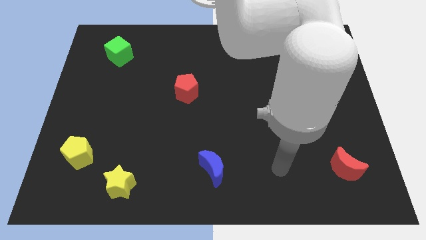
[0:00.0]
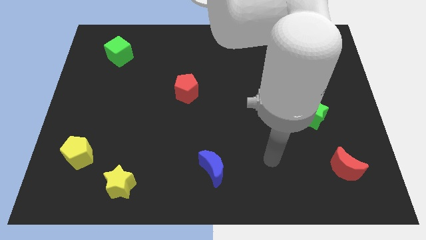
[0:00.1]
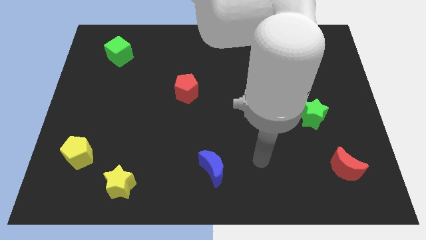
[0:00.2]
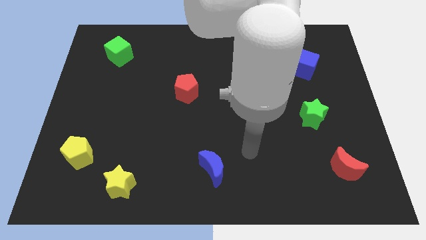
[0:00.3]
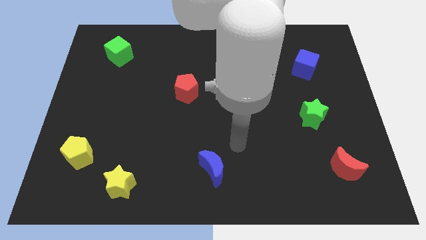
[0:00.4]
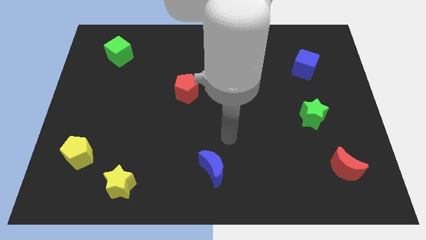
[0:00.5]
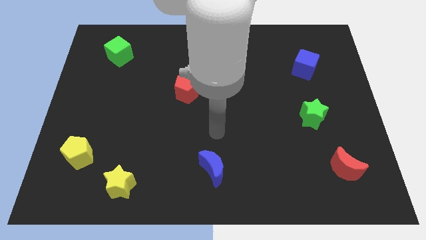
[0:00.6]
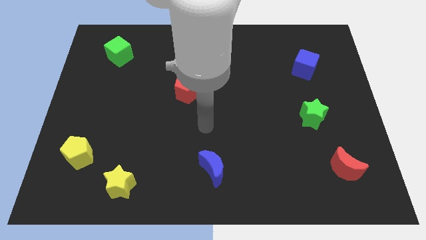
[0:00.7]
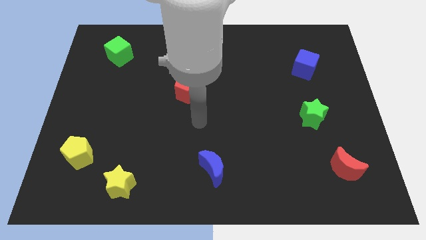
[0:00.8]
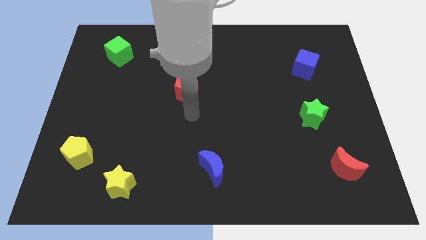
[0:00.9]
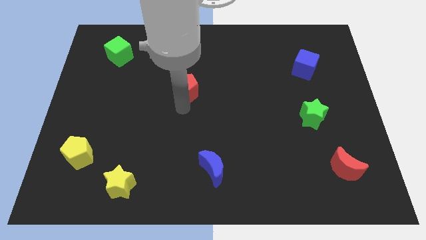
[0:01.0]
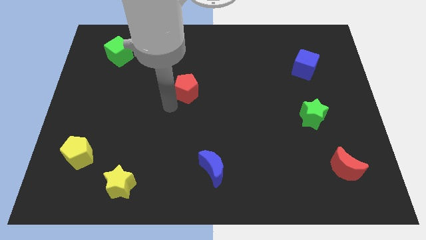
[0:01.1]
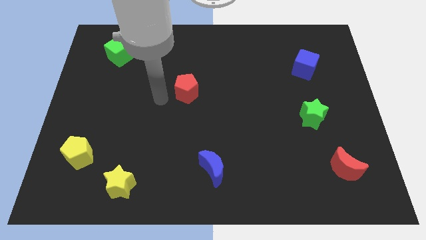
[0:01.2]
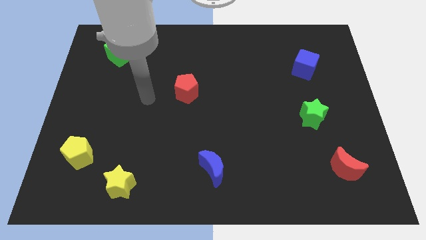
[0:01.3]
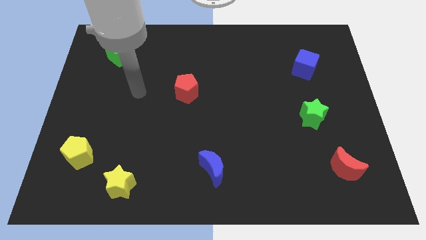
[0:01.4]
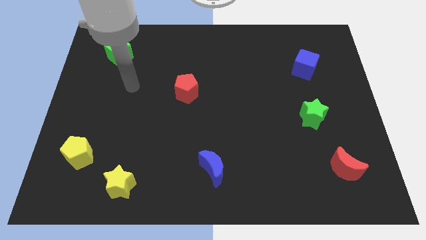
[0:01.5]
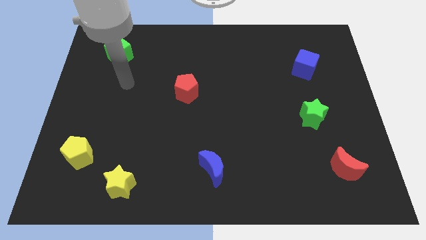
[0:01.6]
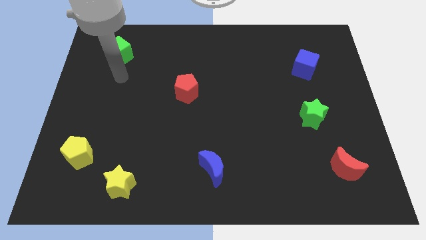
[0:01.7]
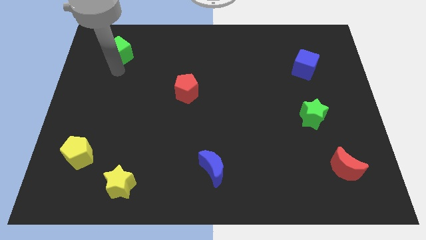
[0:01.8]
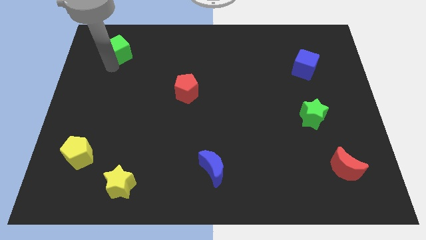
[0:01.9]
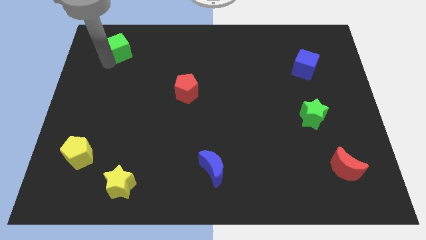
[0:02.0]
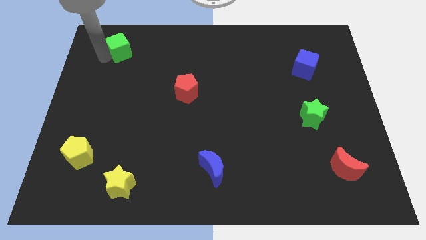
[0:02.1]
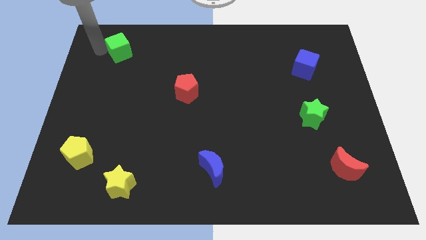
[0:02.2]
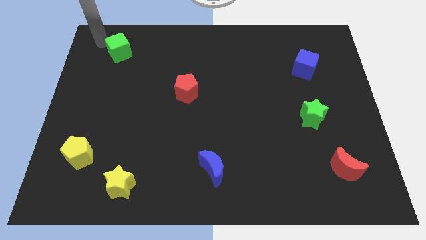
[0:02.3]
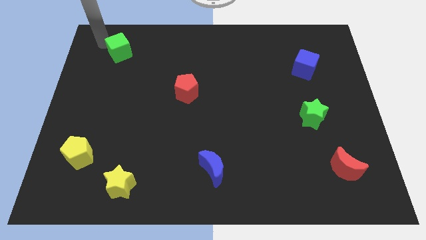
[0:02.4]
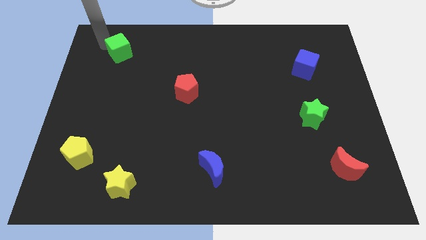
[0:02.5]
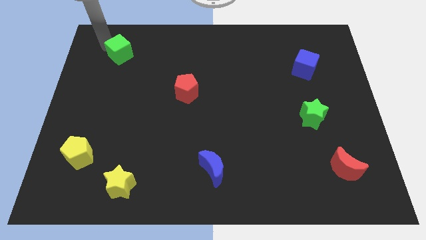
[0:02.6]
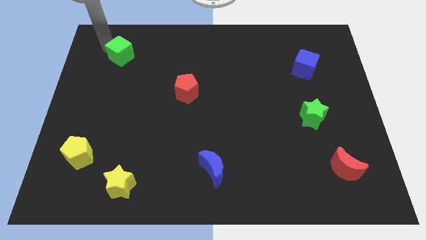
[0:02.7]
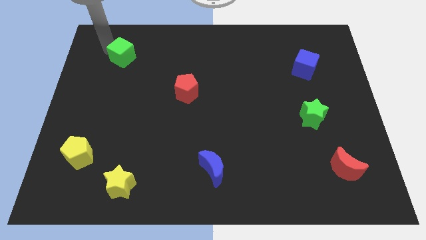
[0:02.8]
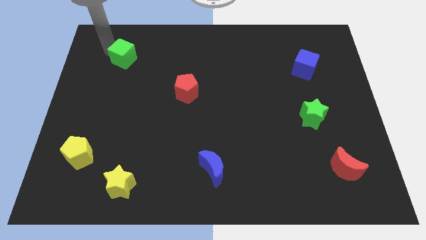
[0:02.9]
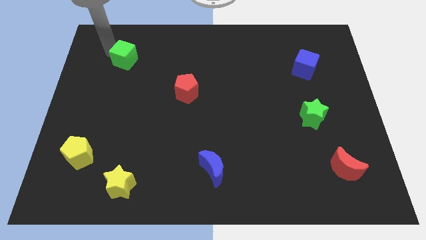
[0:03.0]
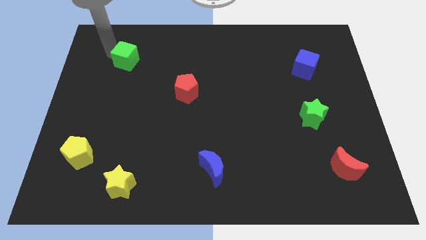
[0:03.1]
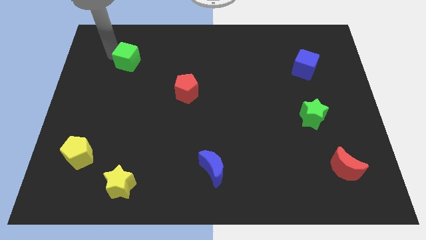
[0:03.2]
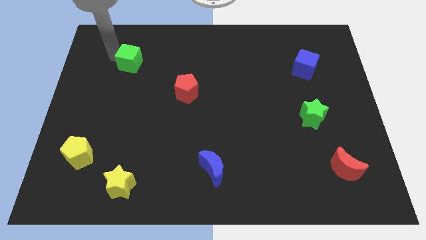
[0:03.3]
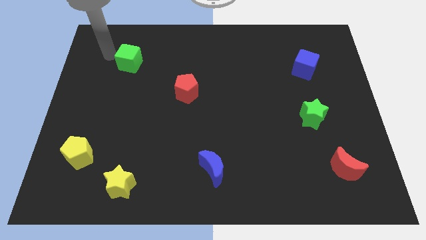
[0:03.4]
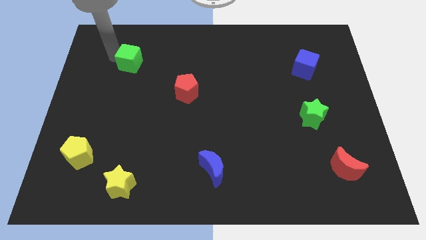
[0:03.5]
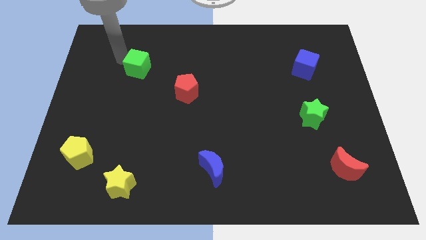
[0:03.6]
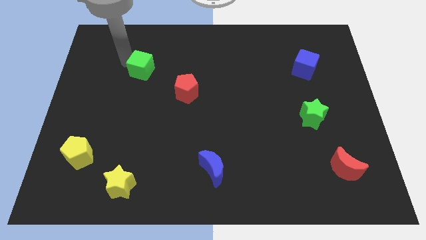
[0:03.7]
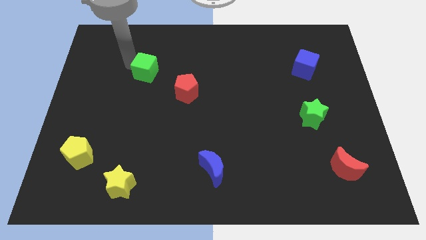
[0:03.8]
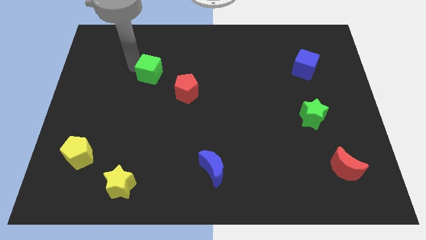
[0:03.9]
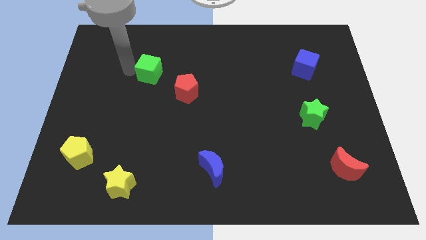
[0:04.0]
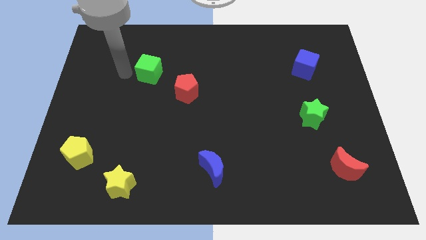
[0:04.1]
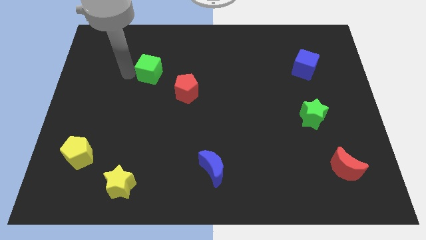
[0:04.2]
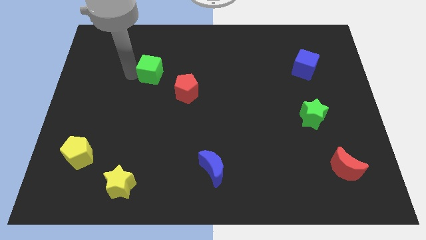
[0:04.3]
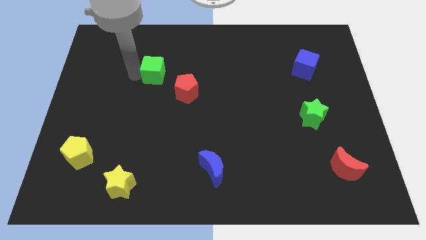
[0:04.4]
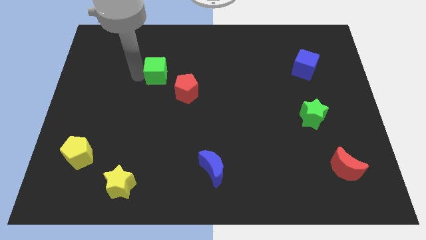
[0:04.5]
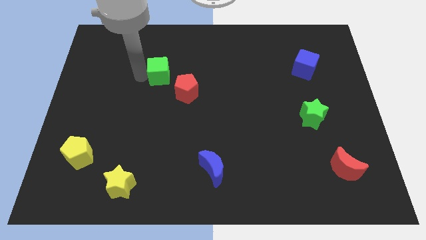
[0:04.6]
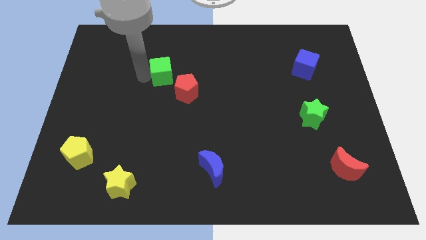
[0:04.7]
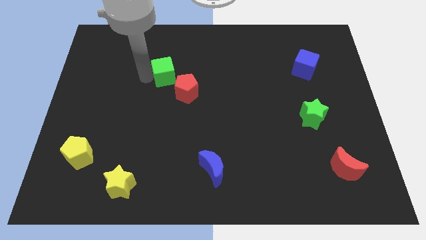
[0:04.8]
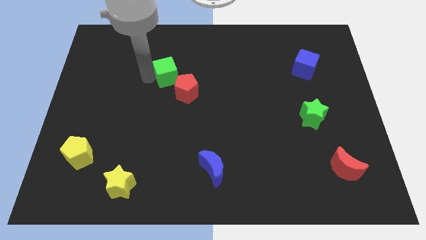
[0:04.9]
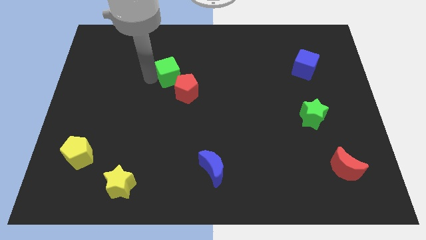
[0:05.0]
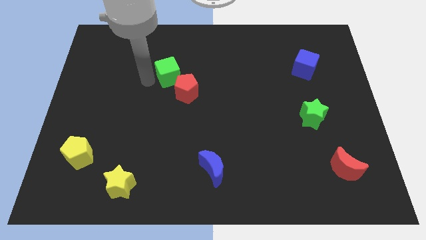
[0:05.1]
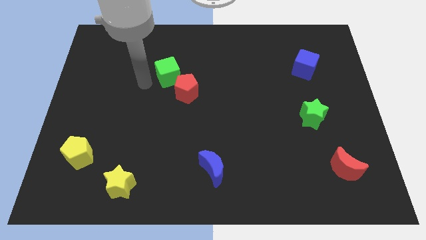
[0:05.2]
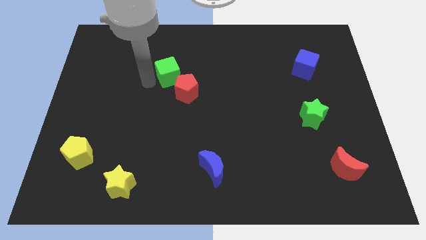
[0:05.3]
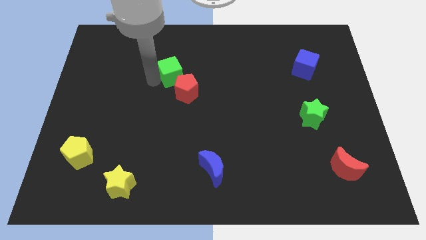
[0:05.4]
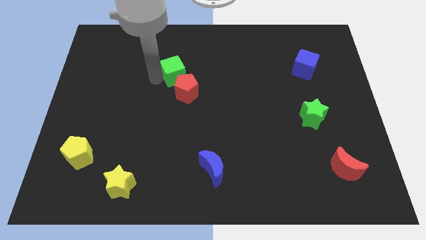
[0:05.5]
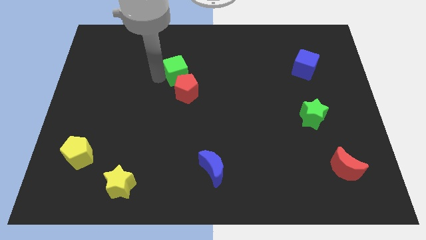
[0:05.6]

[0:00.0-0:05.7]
slide the green cube to the middle of the board

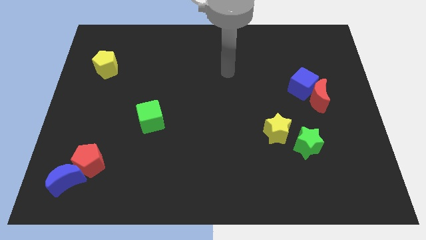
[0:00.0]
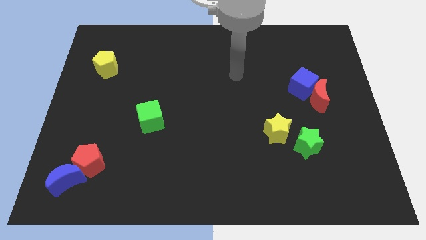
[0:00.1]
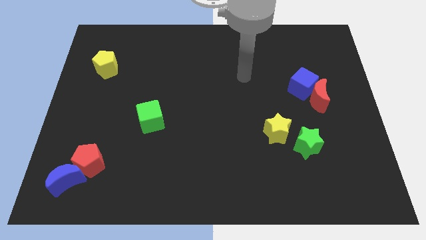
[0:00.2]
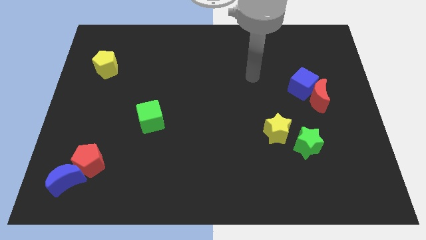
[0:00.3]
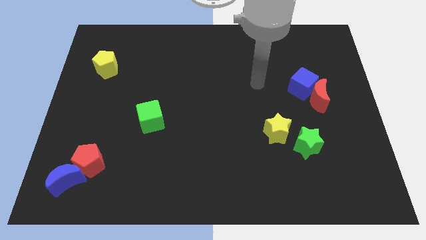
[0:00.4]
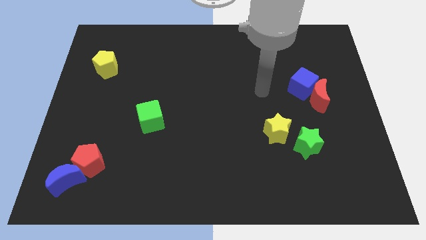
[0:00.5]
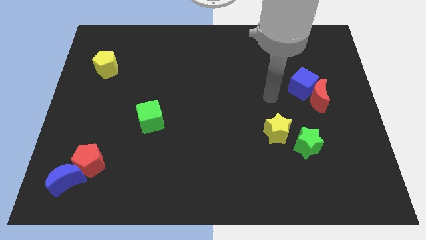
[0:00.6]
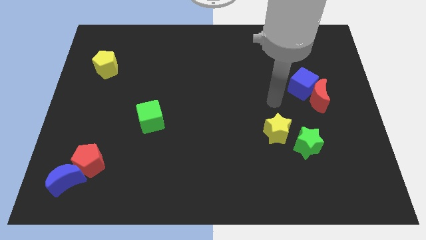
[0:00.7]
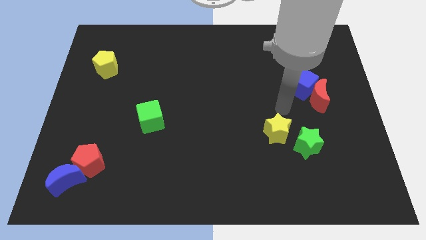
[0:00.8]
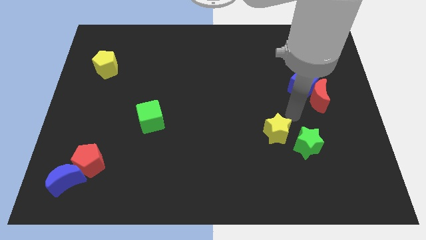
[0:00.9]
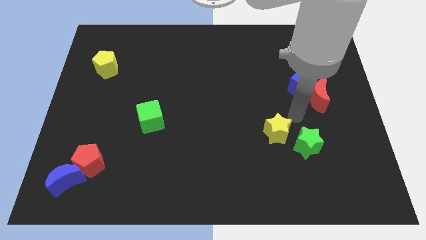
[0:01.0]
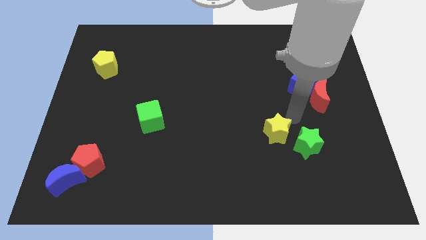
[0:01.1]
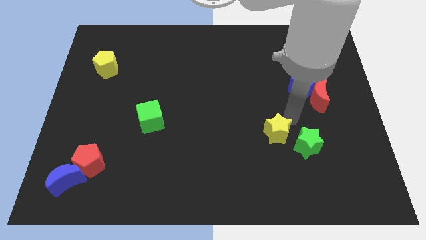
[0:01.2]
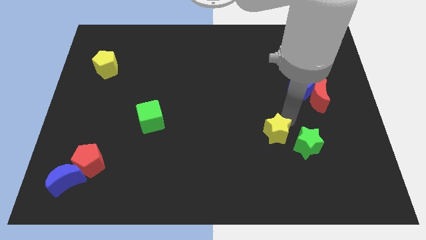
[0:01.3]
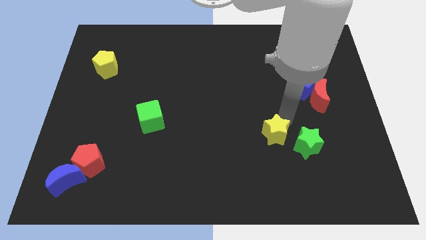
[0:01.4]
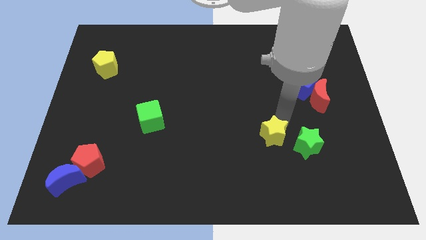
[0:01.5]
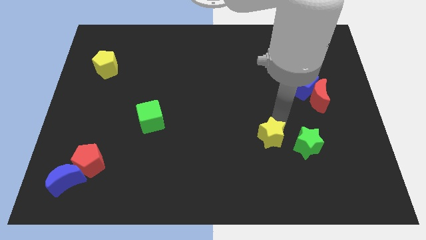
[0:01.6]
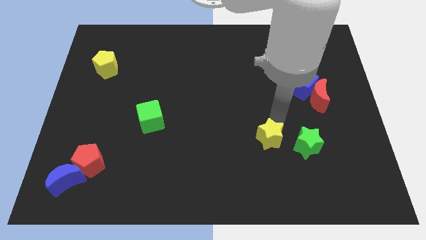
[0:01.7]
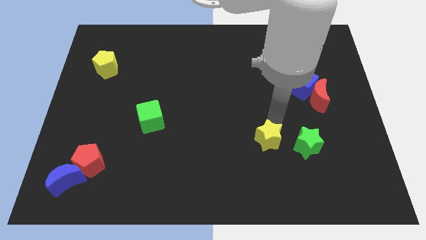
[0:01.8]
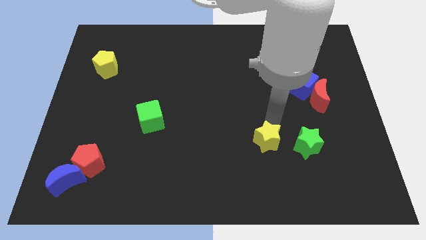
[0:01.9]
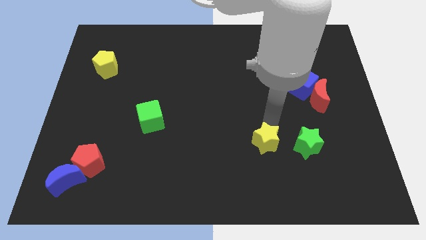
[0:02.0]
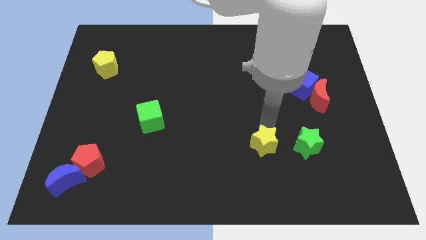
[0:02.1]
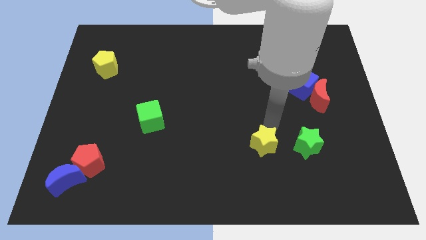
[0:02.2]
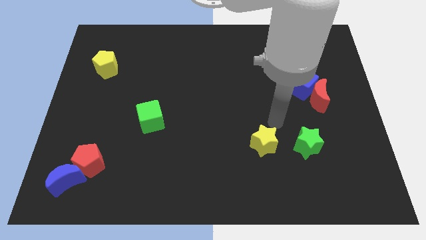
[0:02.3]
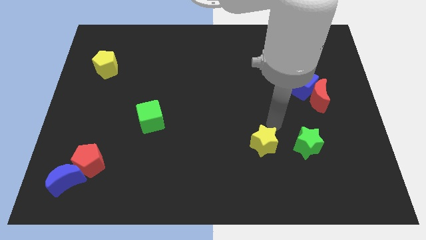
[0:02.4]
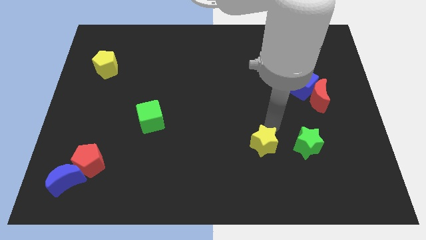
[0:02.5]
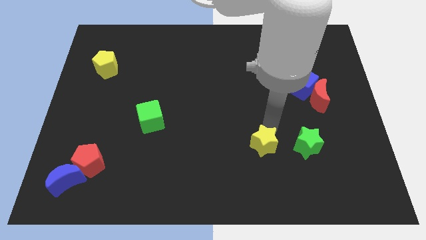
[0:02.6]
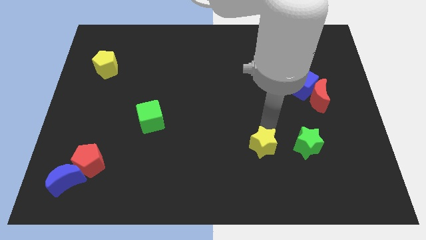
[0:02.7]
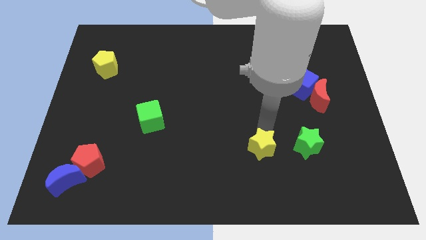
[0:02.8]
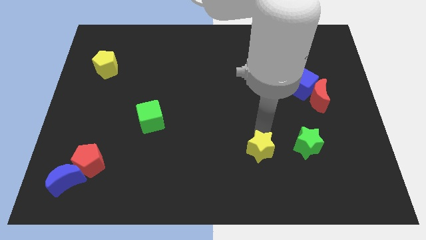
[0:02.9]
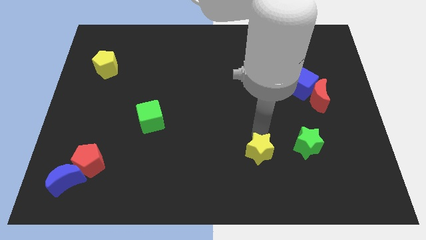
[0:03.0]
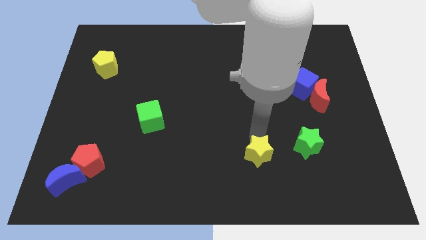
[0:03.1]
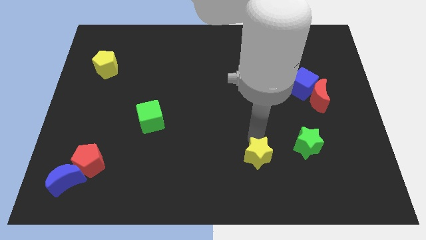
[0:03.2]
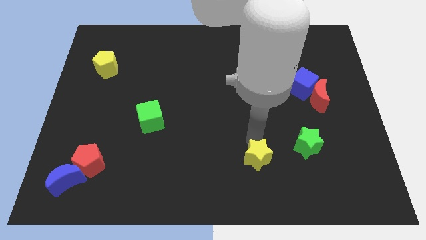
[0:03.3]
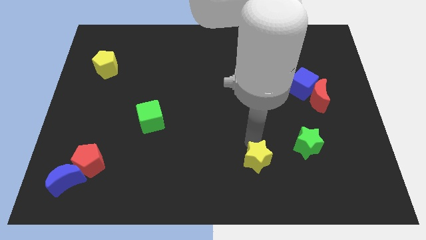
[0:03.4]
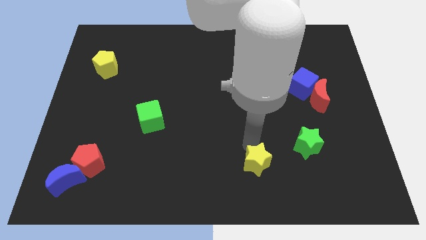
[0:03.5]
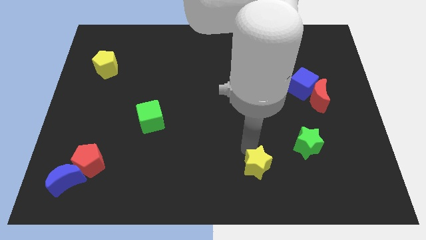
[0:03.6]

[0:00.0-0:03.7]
move the yellow star to the bottom side
